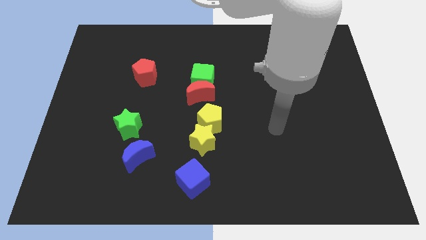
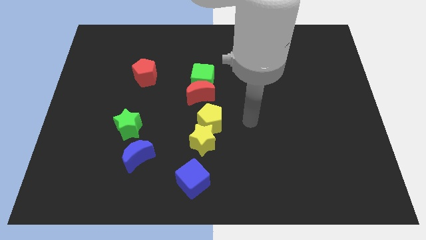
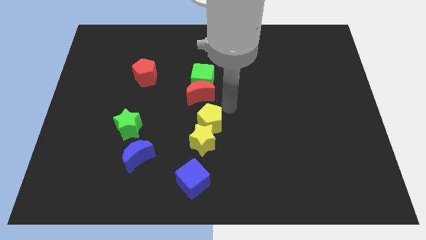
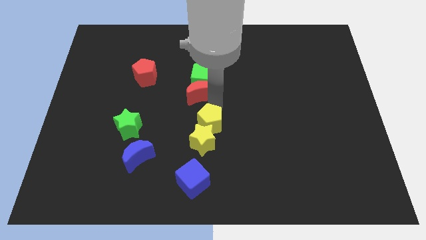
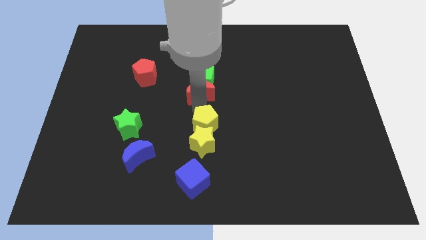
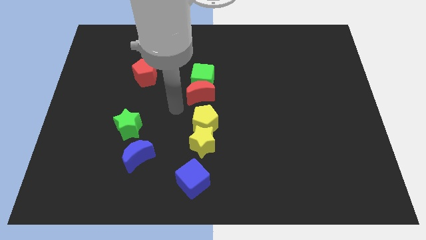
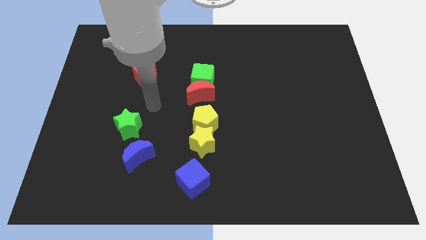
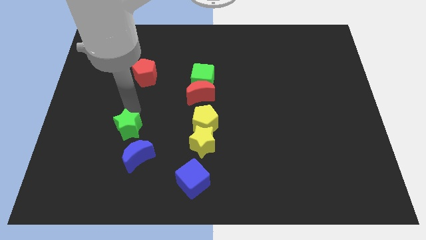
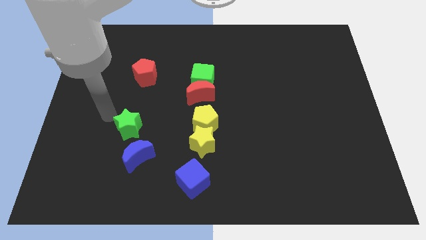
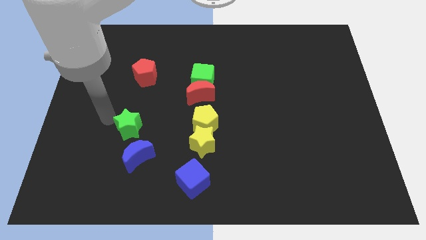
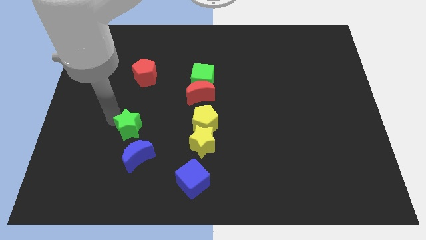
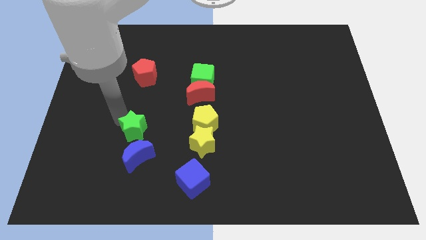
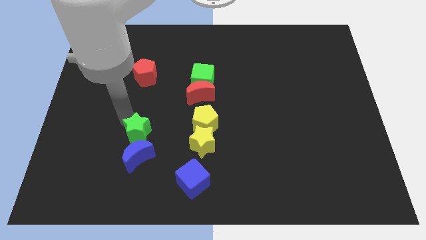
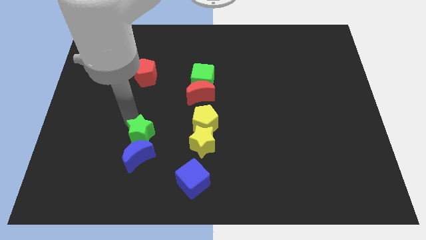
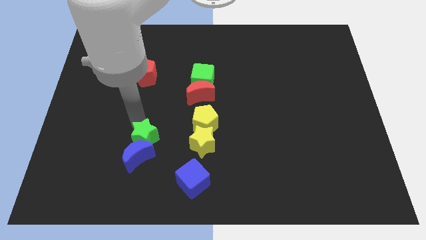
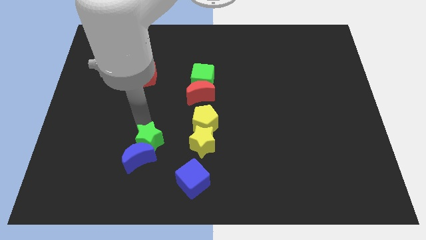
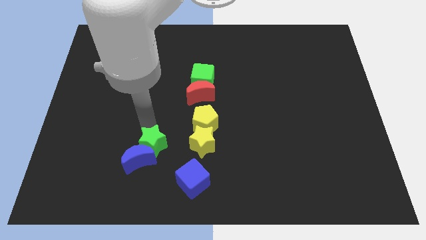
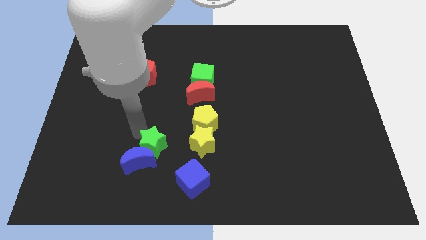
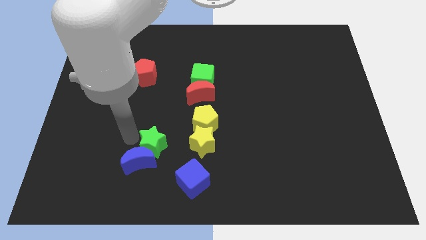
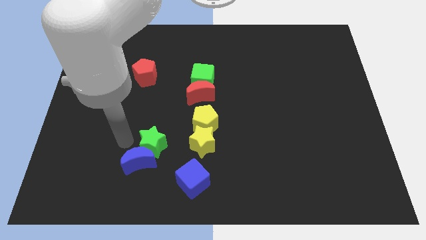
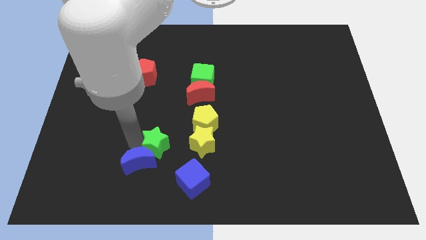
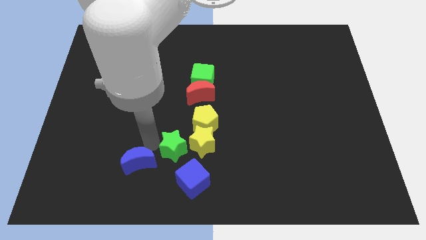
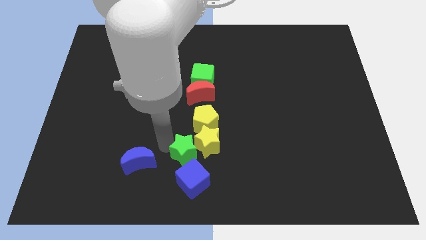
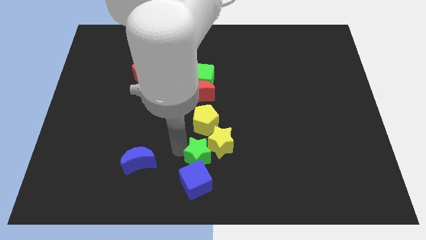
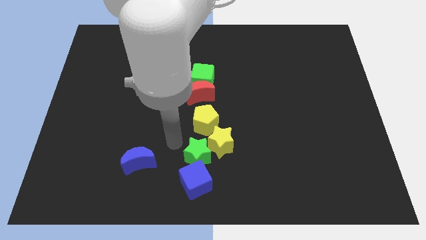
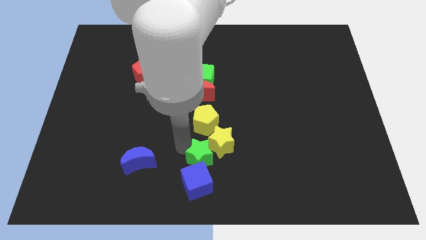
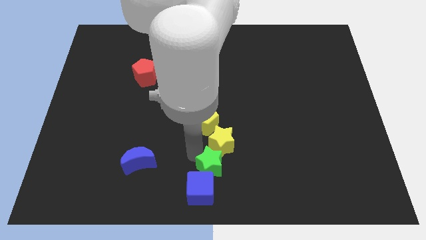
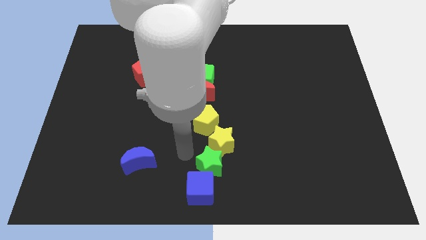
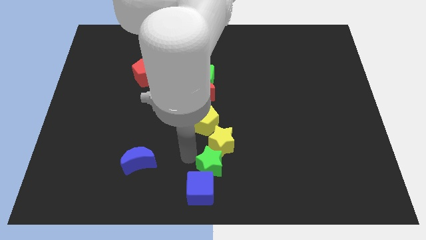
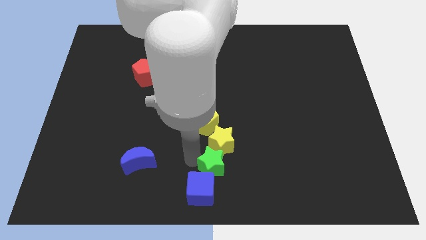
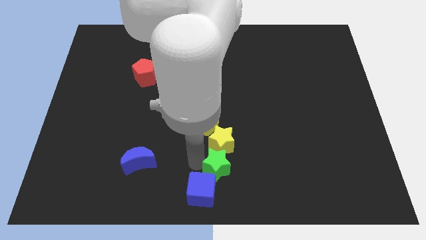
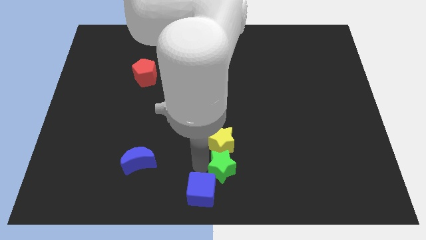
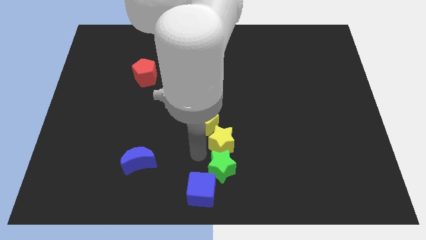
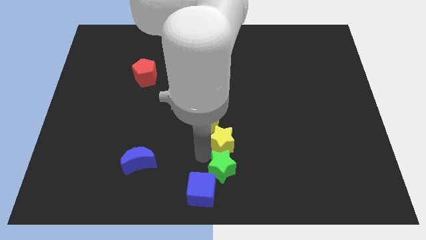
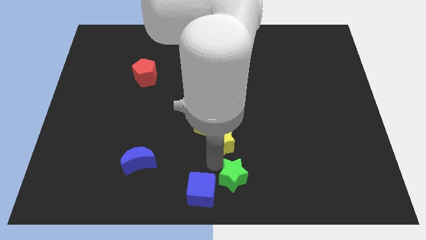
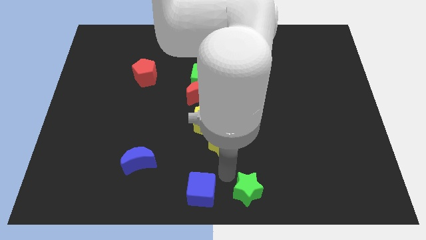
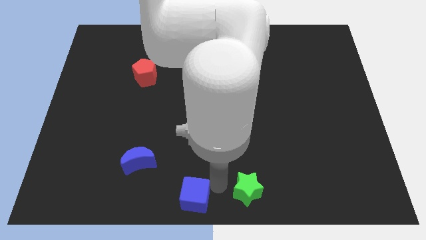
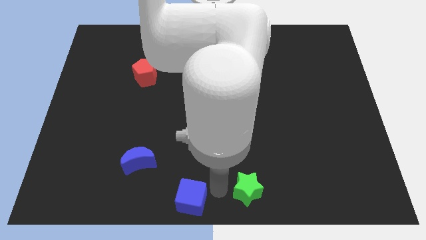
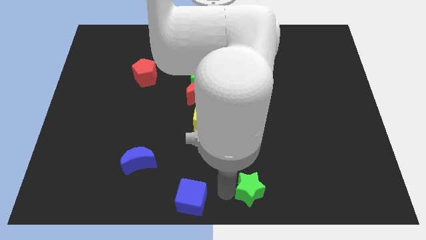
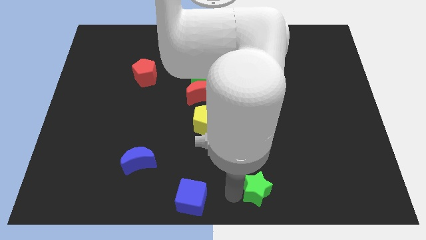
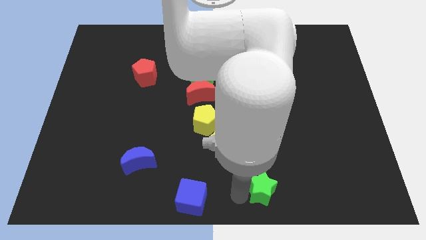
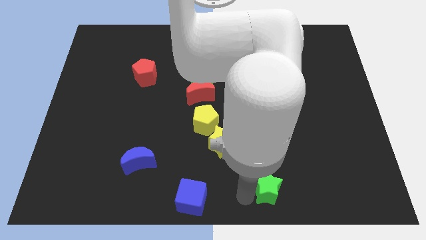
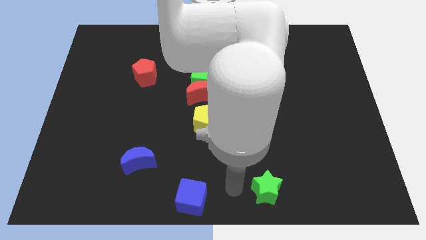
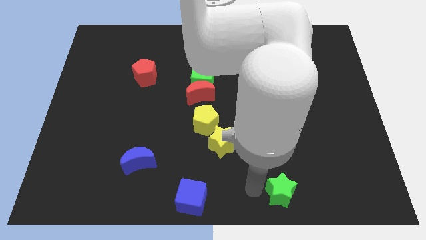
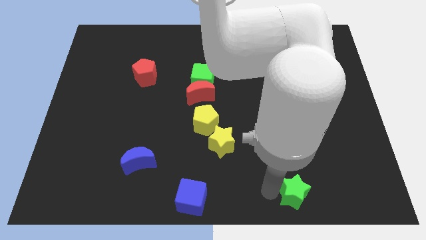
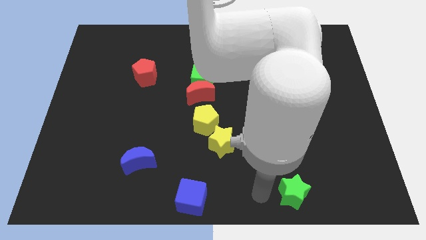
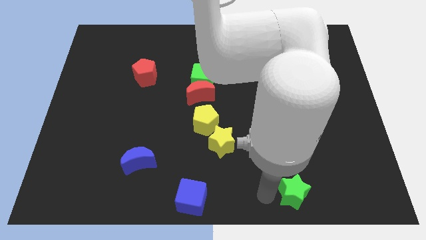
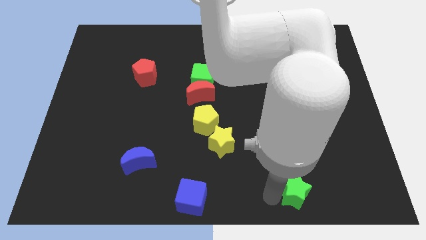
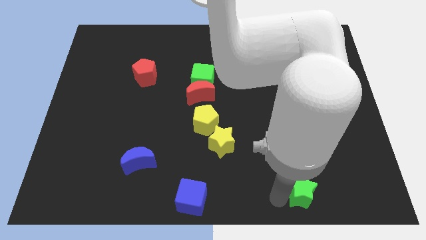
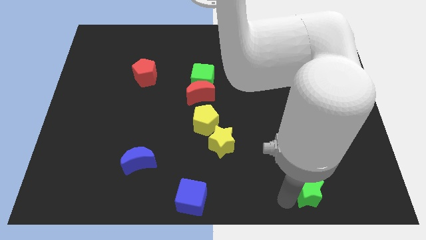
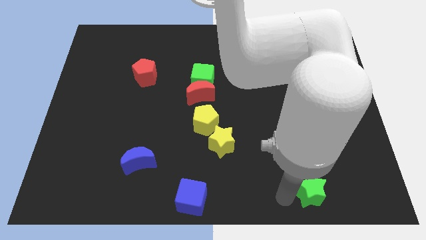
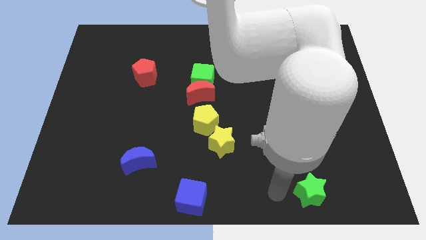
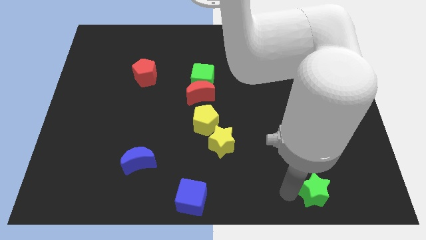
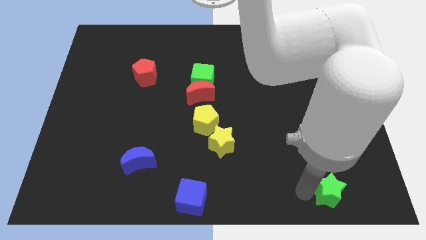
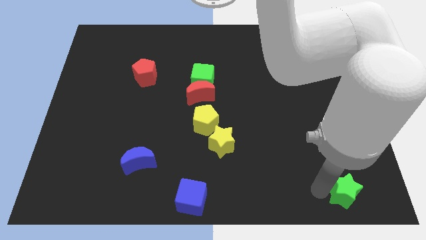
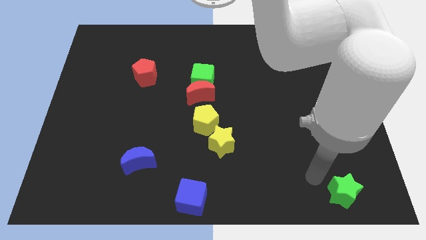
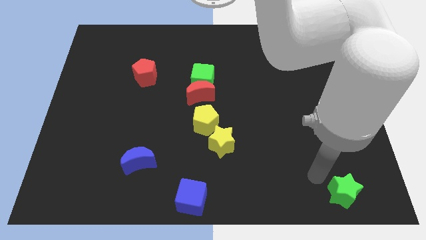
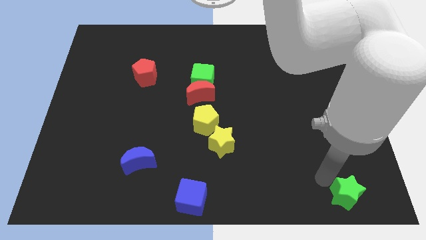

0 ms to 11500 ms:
slide the green star to the bottom right corner
